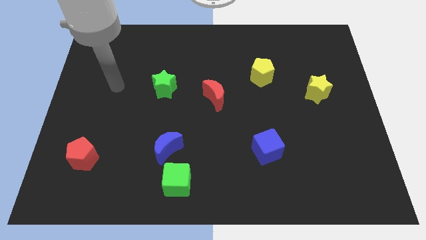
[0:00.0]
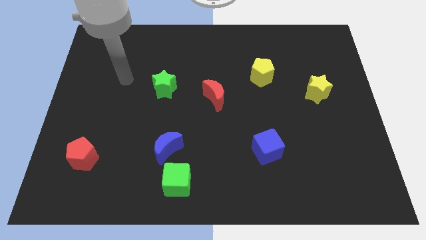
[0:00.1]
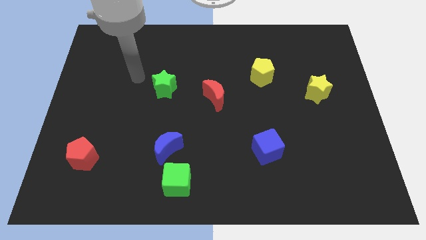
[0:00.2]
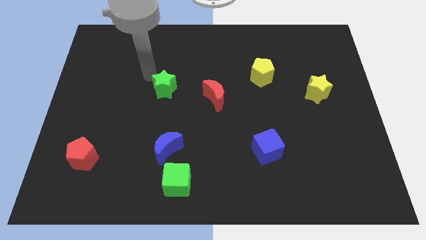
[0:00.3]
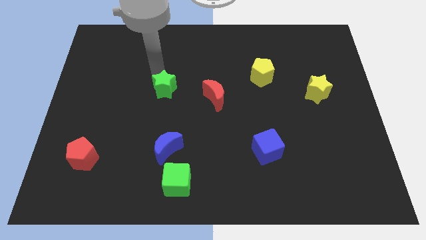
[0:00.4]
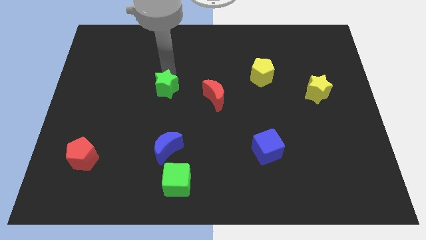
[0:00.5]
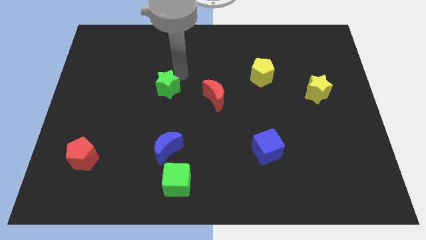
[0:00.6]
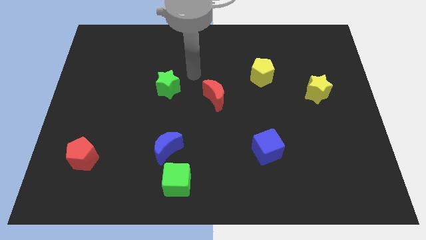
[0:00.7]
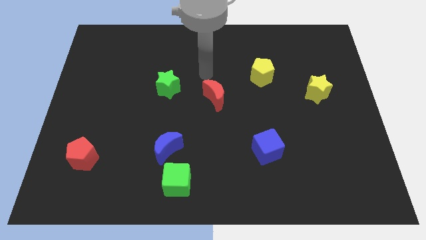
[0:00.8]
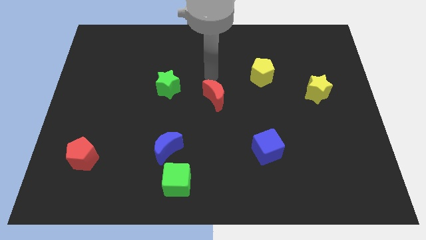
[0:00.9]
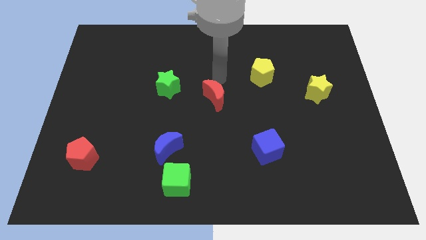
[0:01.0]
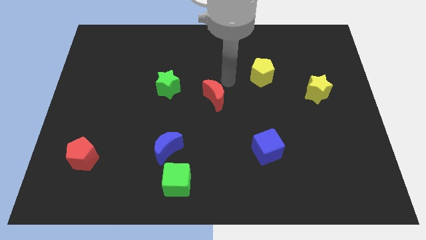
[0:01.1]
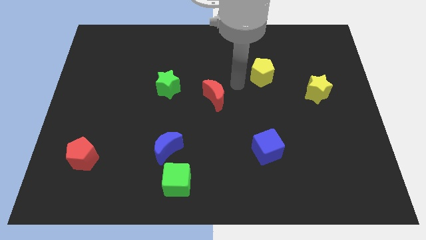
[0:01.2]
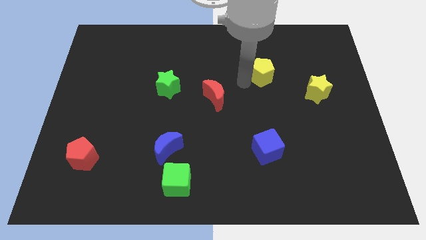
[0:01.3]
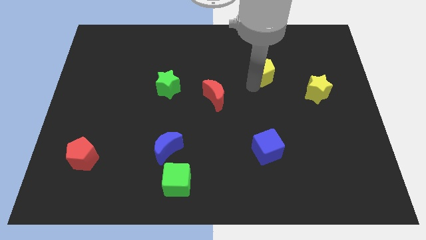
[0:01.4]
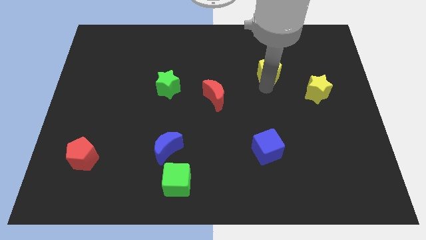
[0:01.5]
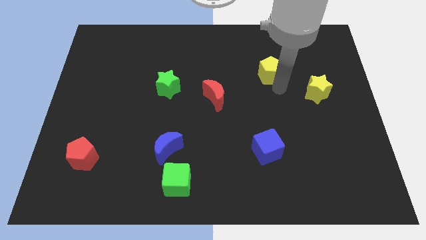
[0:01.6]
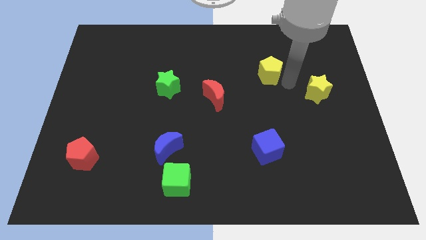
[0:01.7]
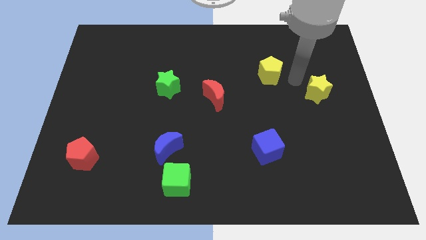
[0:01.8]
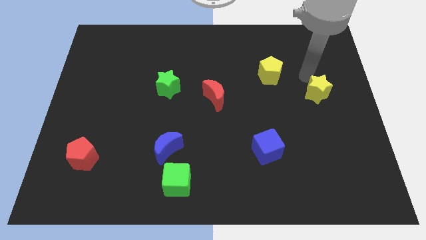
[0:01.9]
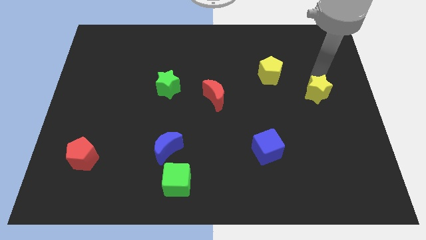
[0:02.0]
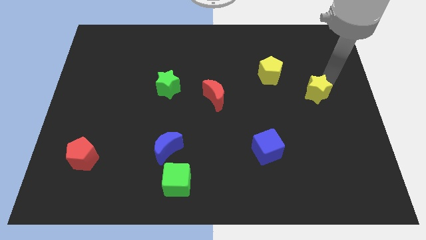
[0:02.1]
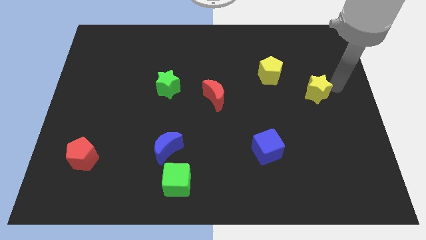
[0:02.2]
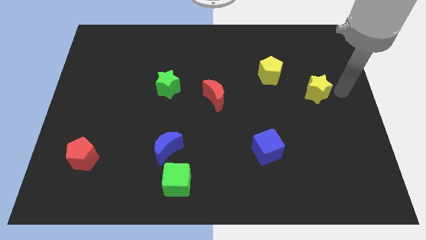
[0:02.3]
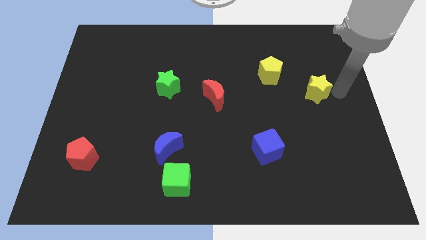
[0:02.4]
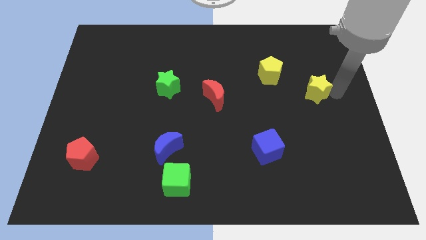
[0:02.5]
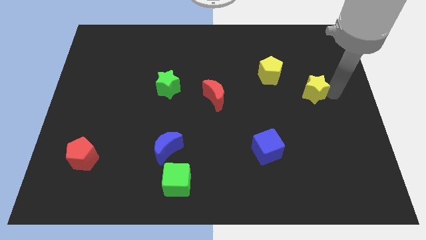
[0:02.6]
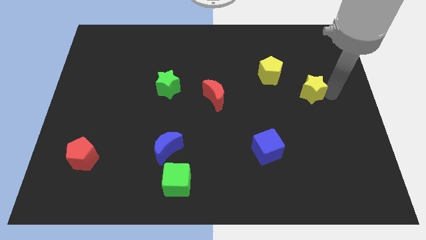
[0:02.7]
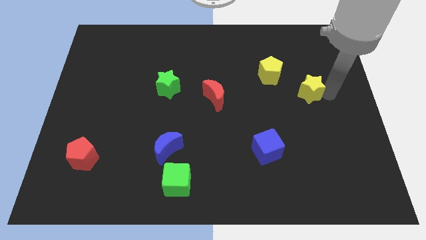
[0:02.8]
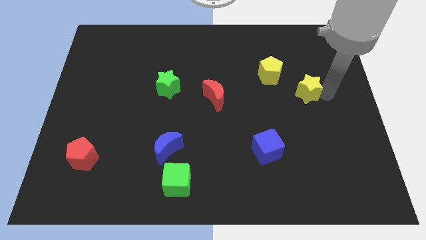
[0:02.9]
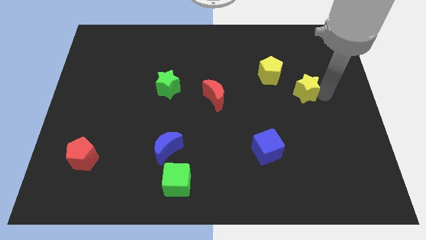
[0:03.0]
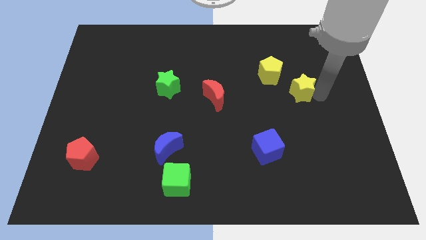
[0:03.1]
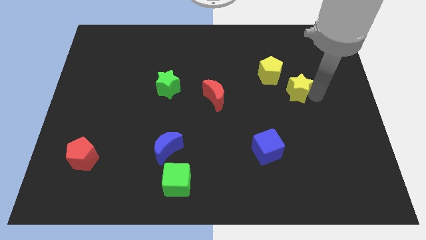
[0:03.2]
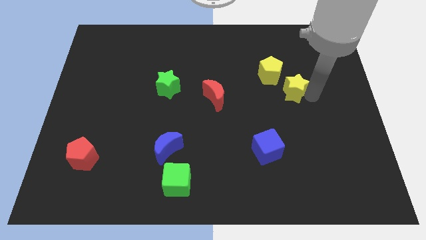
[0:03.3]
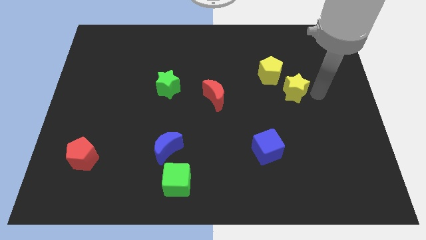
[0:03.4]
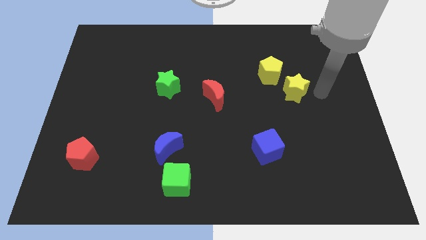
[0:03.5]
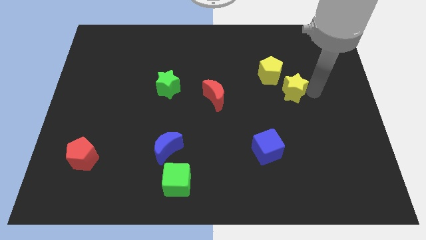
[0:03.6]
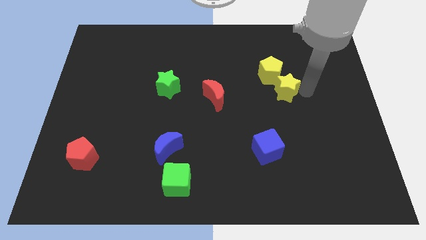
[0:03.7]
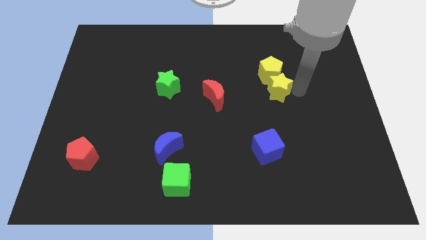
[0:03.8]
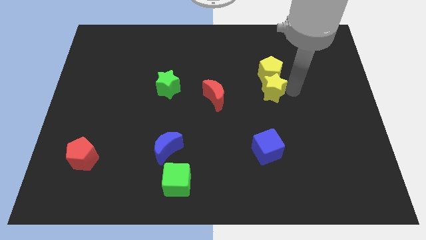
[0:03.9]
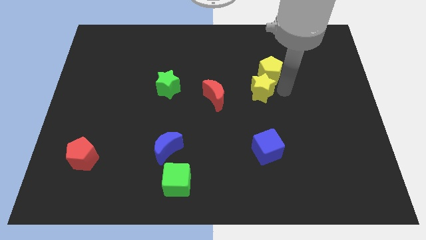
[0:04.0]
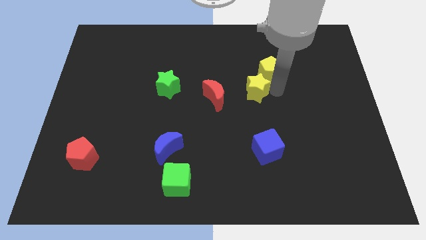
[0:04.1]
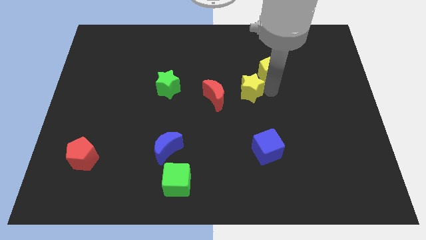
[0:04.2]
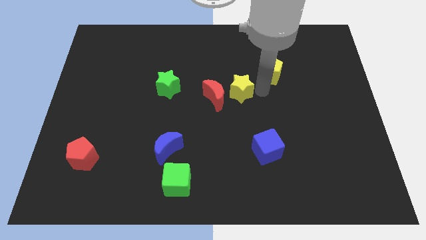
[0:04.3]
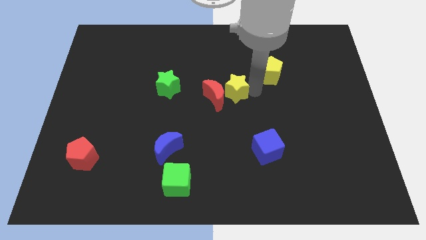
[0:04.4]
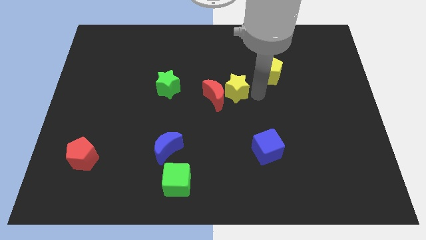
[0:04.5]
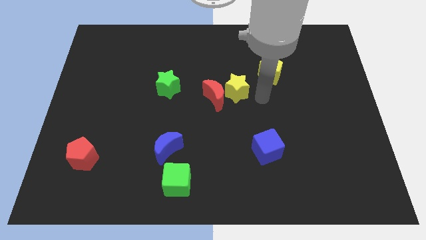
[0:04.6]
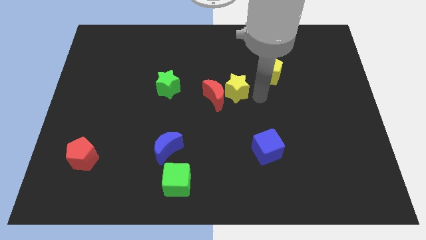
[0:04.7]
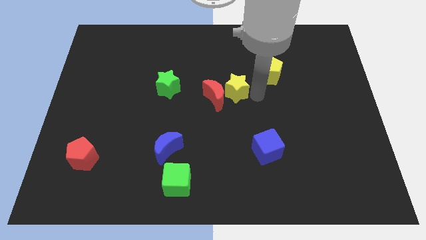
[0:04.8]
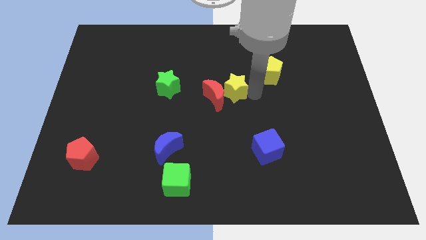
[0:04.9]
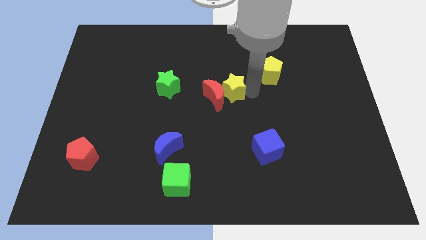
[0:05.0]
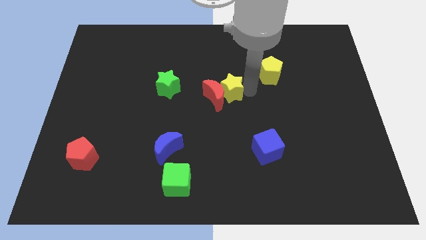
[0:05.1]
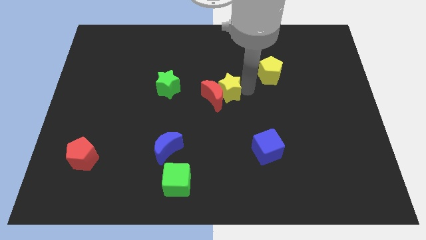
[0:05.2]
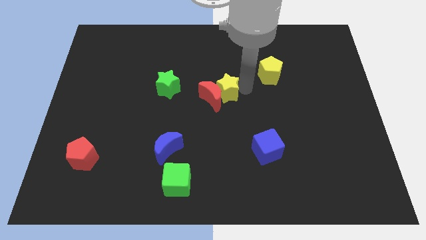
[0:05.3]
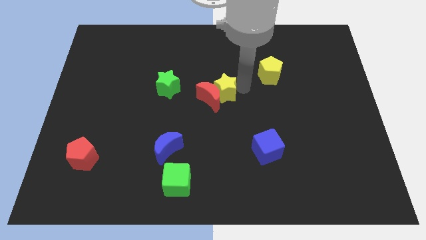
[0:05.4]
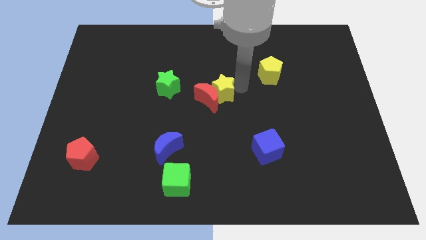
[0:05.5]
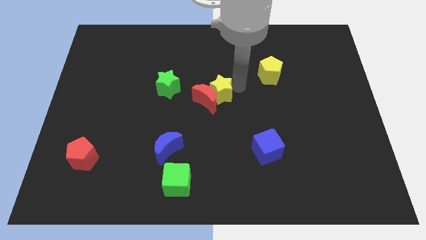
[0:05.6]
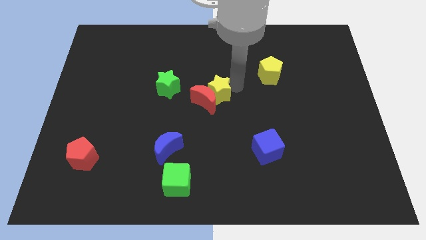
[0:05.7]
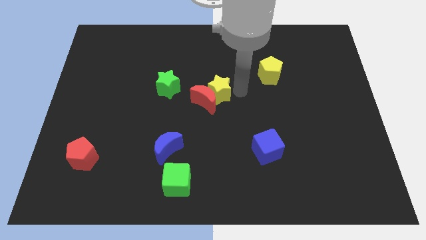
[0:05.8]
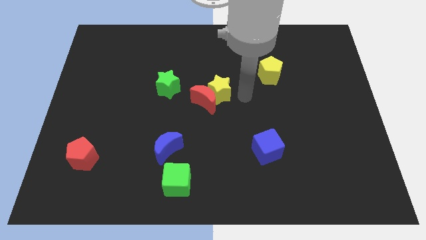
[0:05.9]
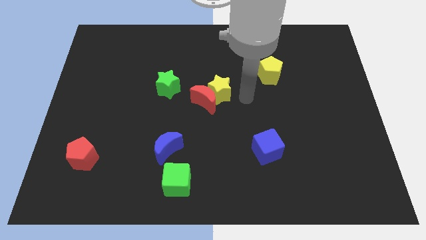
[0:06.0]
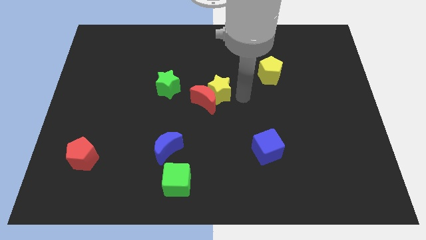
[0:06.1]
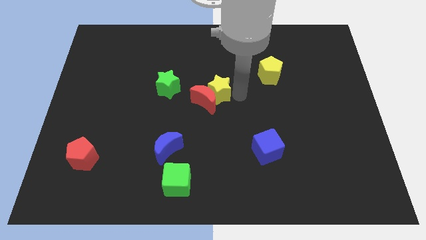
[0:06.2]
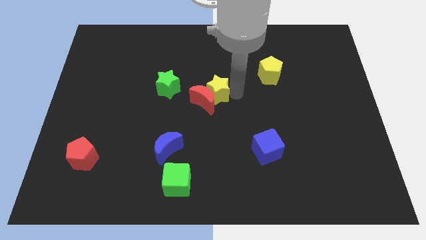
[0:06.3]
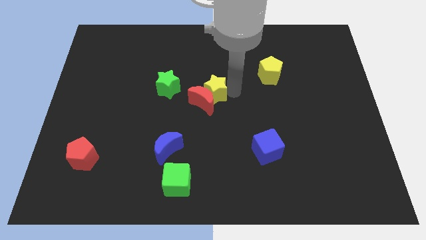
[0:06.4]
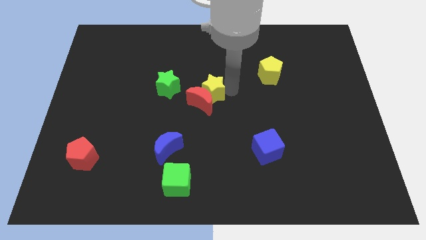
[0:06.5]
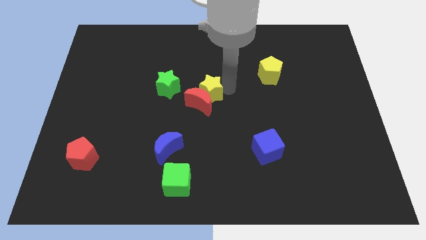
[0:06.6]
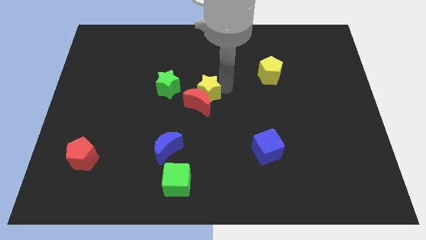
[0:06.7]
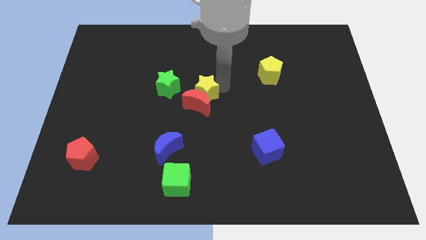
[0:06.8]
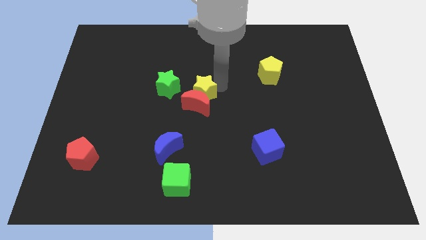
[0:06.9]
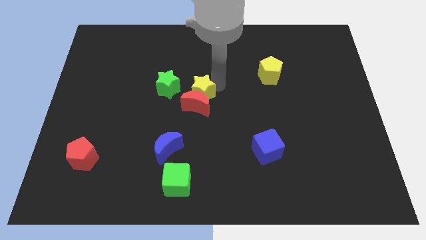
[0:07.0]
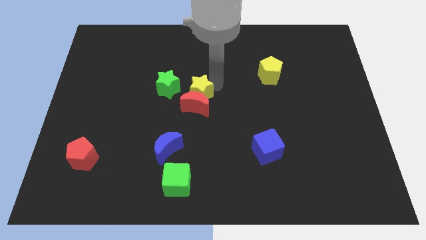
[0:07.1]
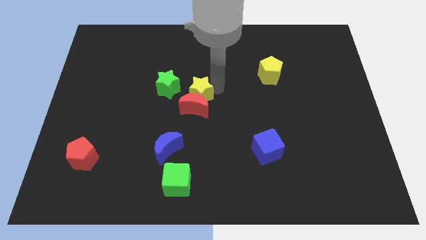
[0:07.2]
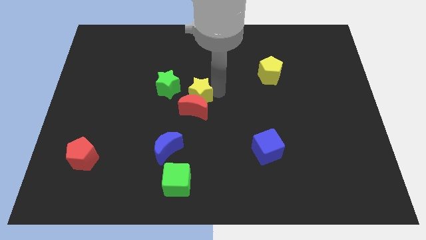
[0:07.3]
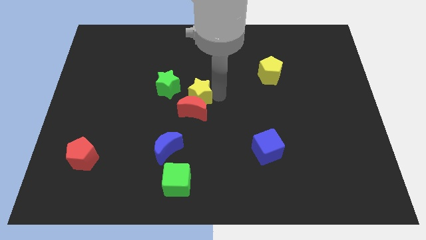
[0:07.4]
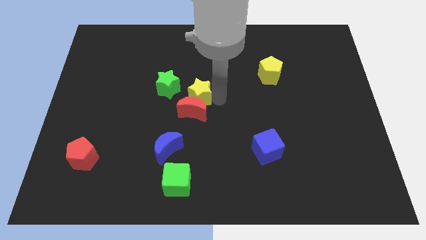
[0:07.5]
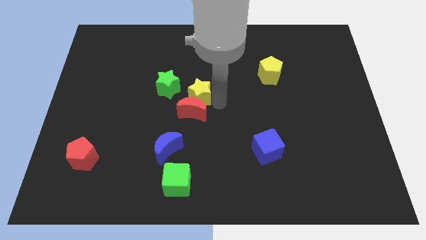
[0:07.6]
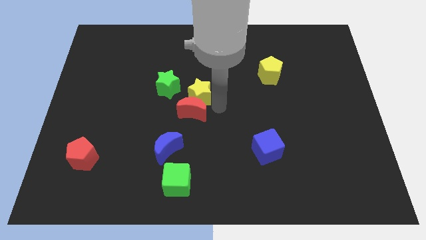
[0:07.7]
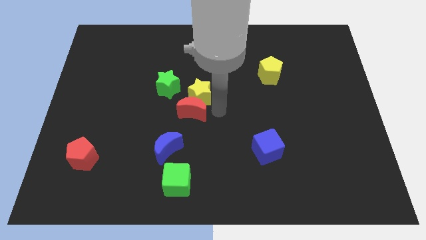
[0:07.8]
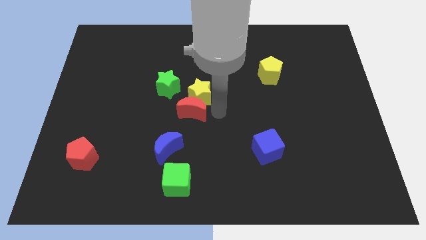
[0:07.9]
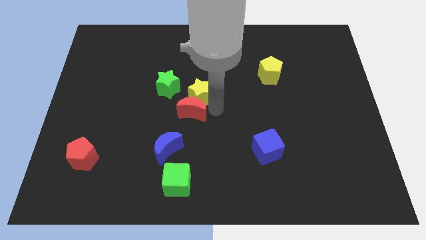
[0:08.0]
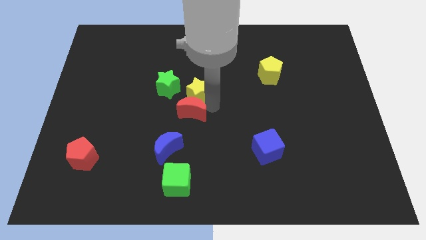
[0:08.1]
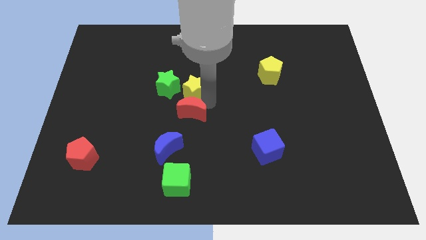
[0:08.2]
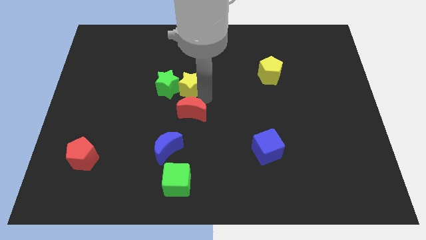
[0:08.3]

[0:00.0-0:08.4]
put the yellow star towards the green star
